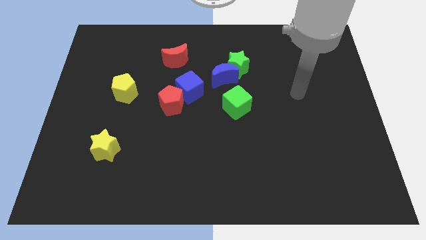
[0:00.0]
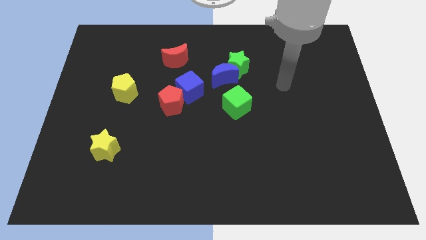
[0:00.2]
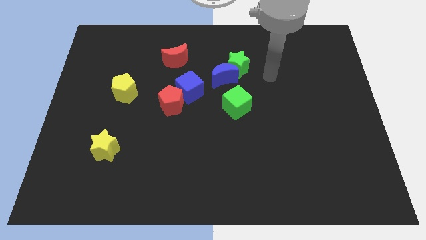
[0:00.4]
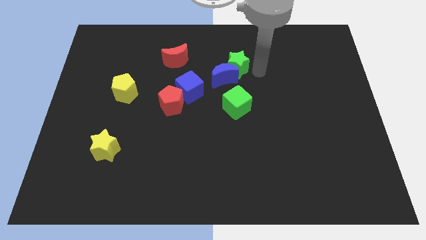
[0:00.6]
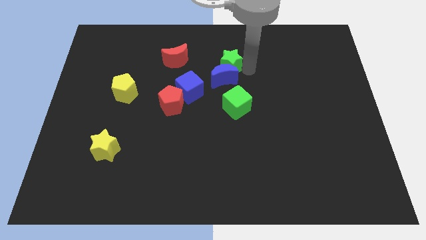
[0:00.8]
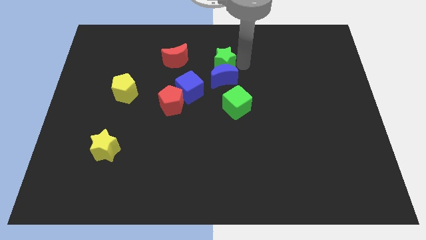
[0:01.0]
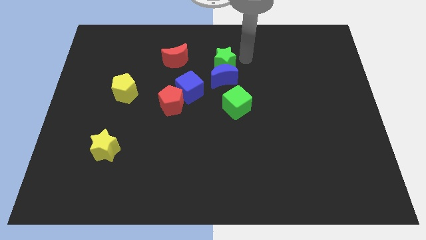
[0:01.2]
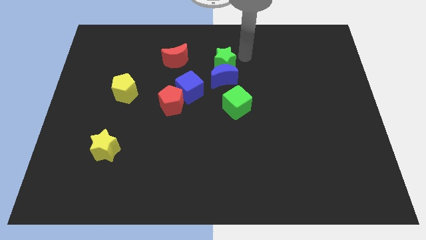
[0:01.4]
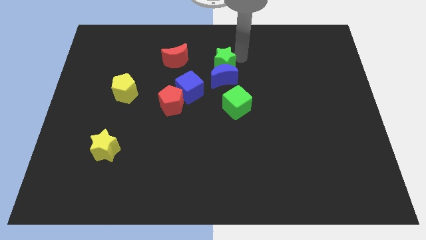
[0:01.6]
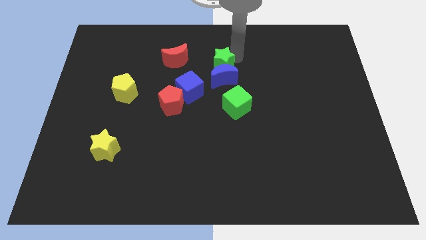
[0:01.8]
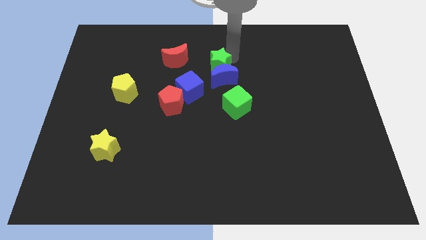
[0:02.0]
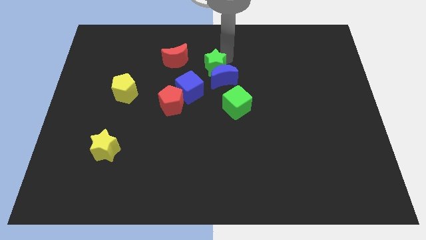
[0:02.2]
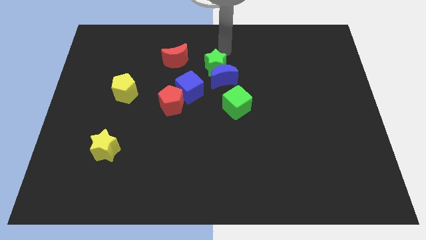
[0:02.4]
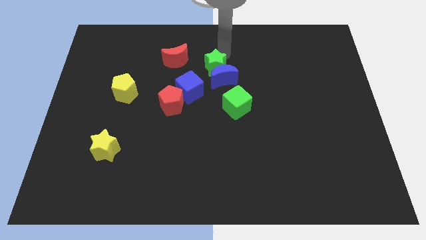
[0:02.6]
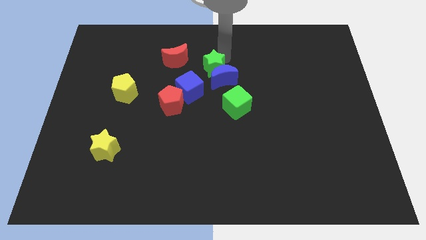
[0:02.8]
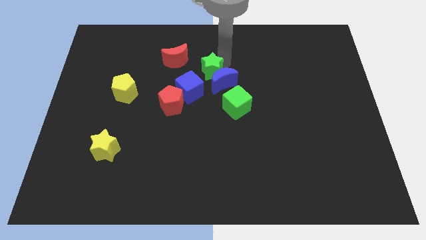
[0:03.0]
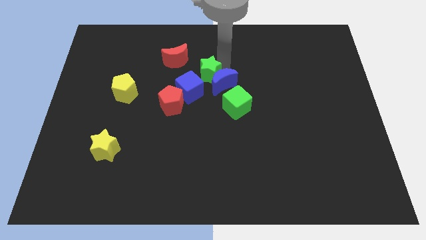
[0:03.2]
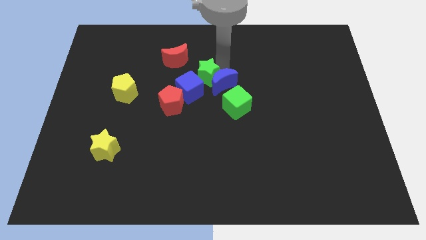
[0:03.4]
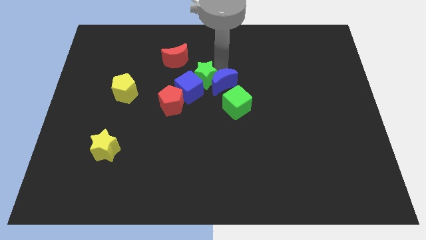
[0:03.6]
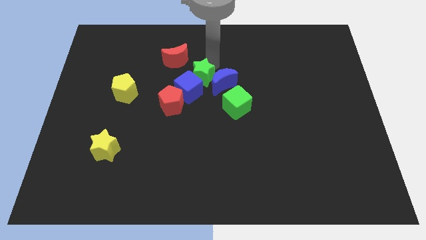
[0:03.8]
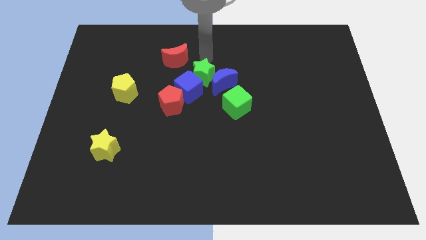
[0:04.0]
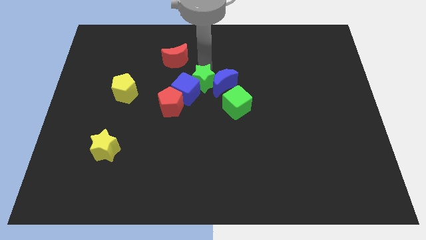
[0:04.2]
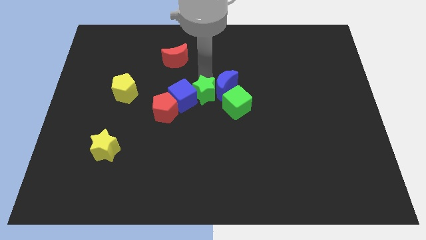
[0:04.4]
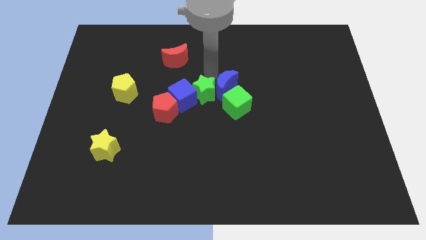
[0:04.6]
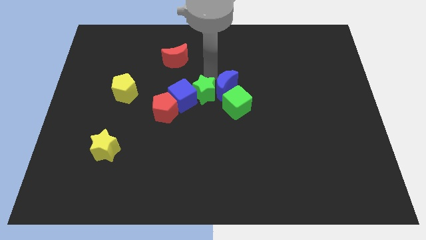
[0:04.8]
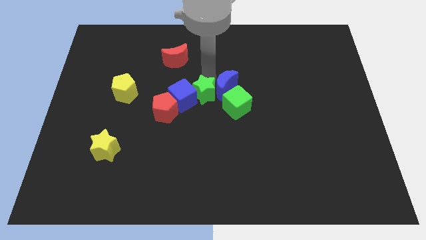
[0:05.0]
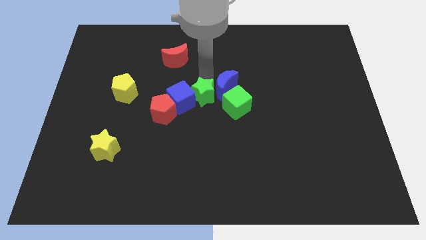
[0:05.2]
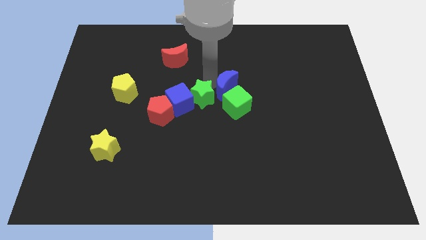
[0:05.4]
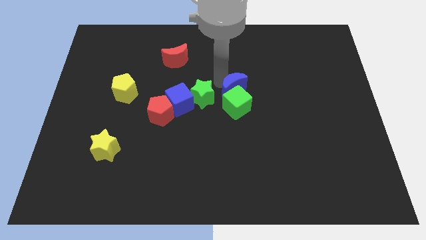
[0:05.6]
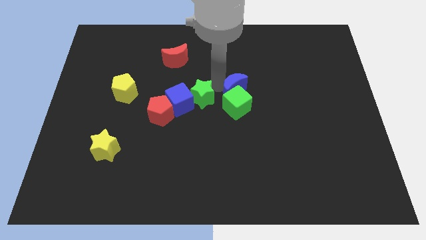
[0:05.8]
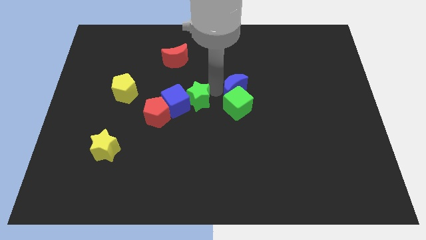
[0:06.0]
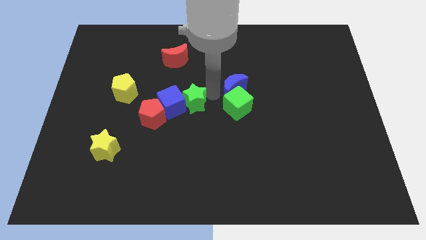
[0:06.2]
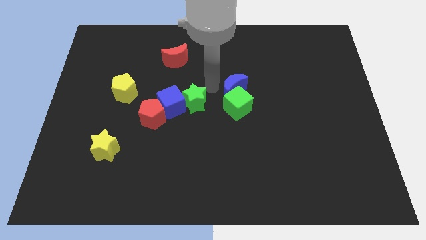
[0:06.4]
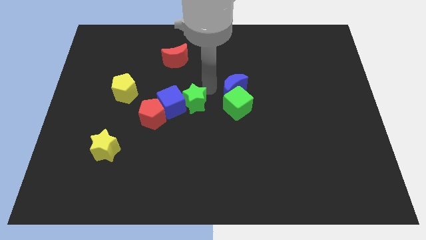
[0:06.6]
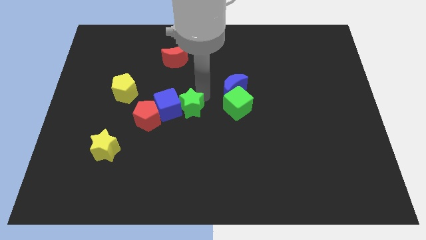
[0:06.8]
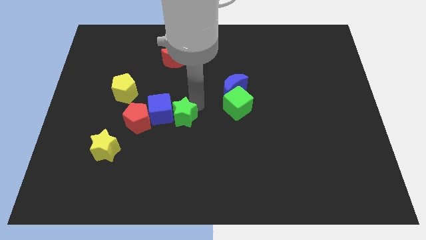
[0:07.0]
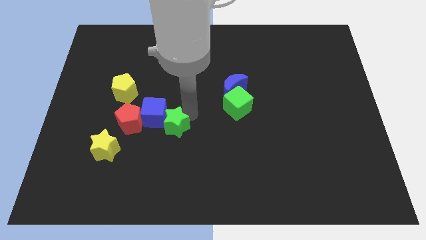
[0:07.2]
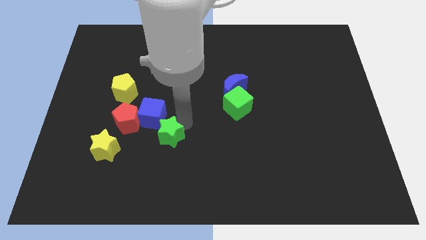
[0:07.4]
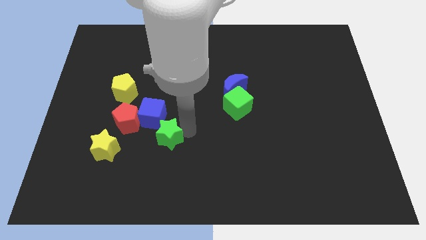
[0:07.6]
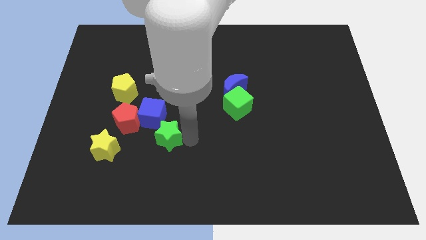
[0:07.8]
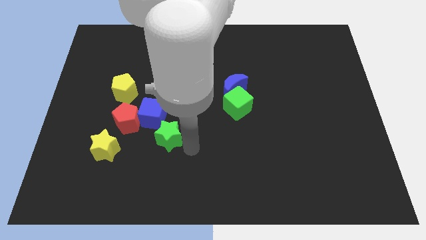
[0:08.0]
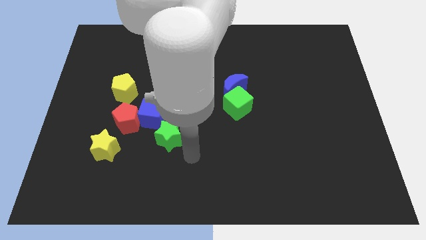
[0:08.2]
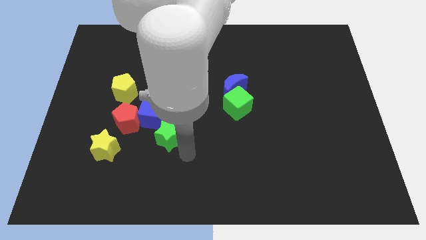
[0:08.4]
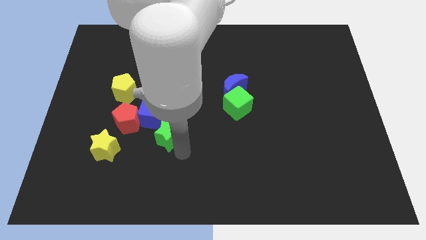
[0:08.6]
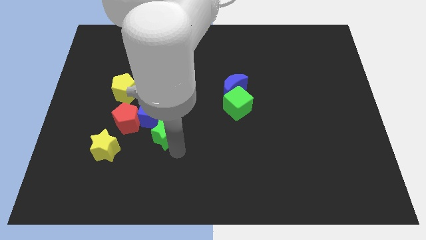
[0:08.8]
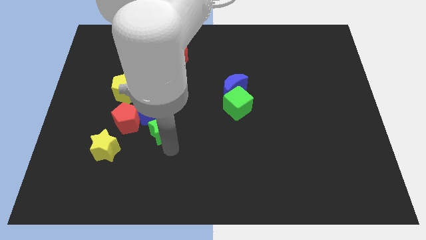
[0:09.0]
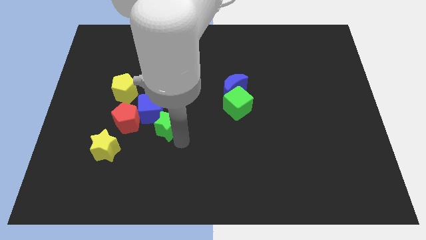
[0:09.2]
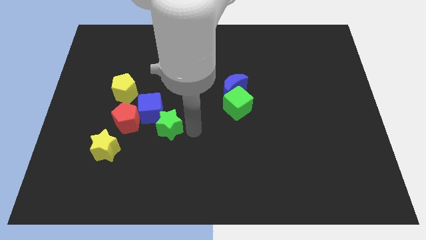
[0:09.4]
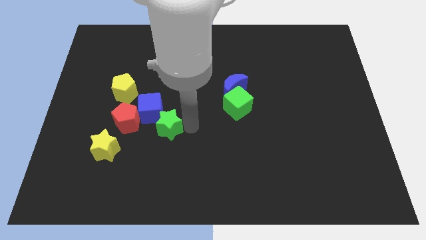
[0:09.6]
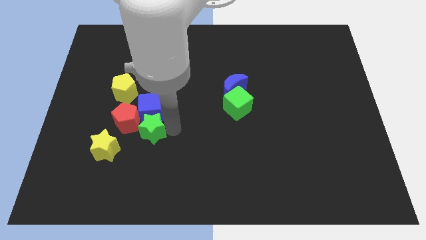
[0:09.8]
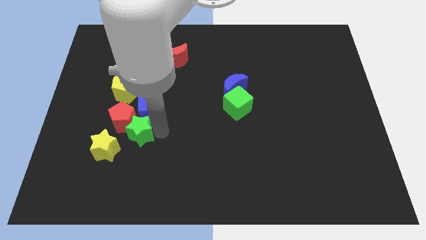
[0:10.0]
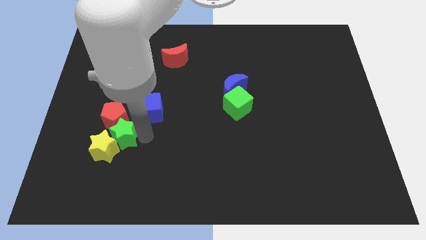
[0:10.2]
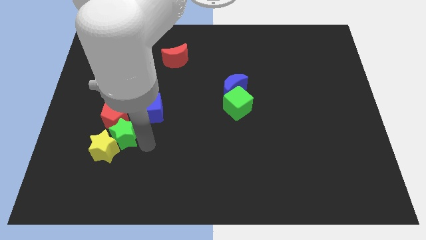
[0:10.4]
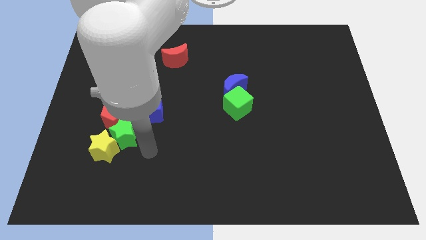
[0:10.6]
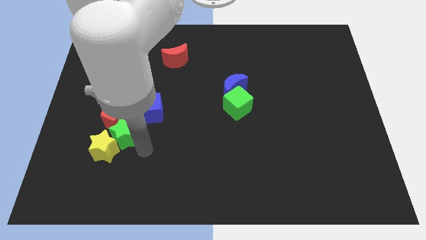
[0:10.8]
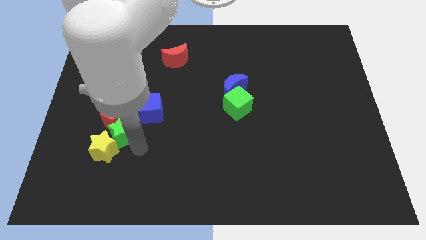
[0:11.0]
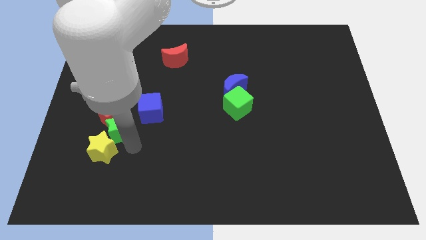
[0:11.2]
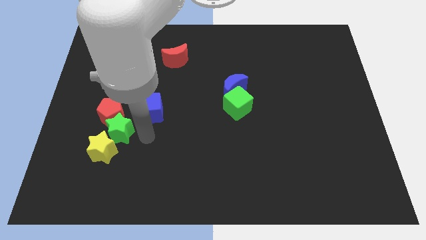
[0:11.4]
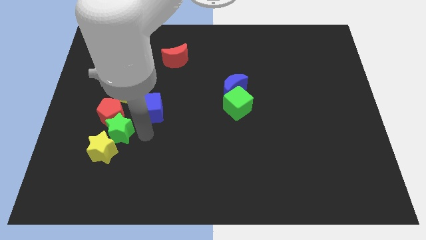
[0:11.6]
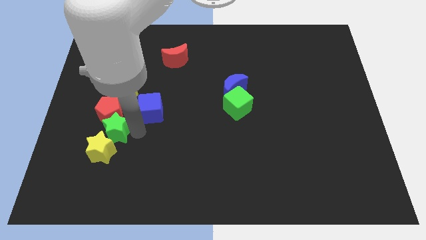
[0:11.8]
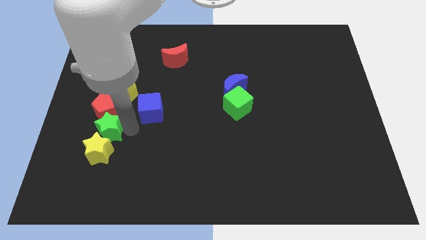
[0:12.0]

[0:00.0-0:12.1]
put the green star to the top left side of the yellow star

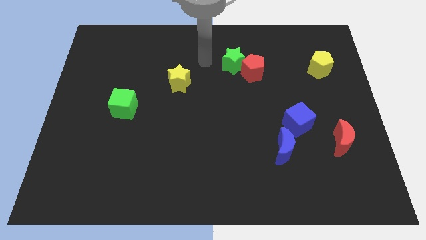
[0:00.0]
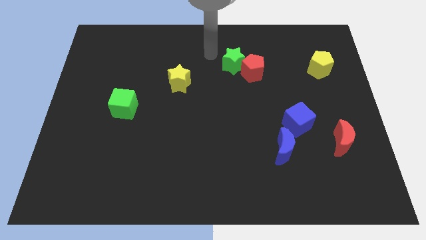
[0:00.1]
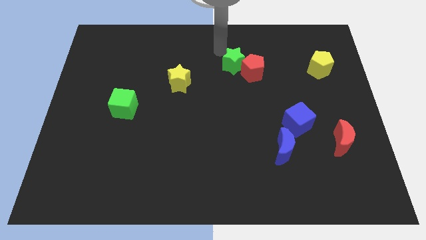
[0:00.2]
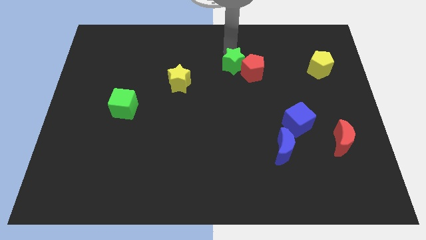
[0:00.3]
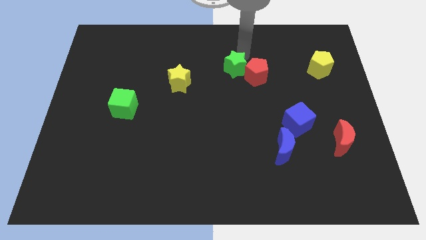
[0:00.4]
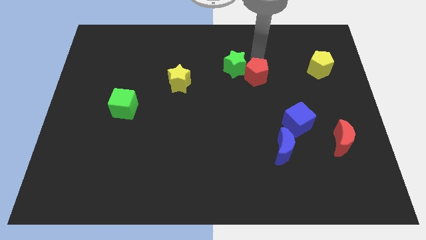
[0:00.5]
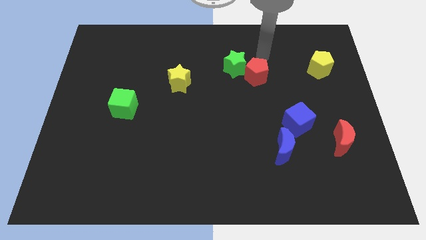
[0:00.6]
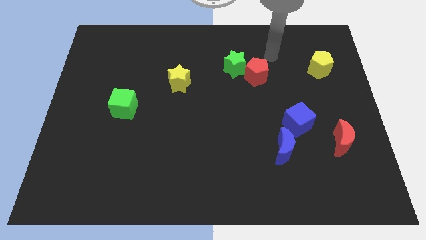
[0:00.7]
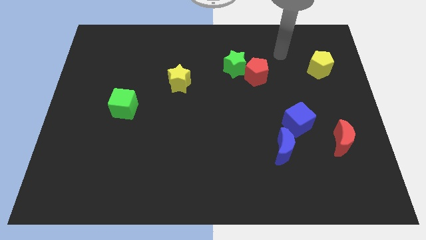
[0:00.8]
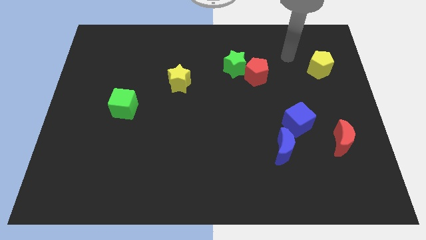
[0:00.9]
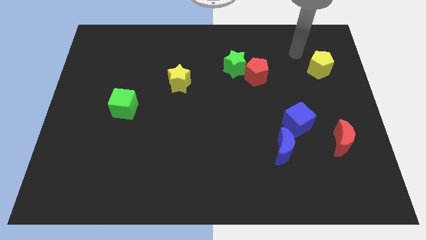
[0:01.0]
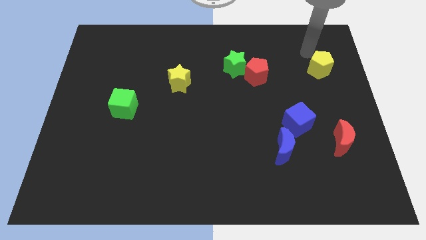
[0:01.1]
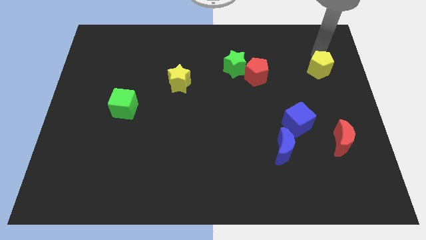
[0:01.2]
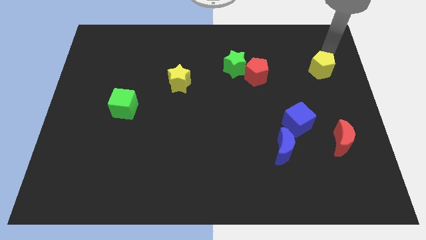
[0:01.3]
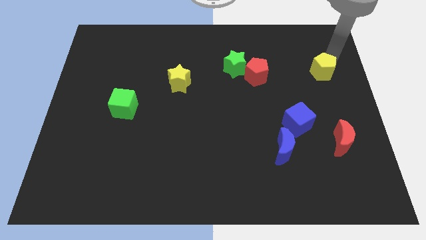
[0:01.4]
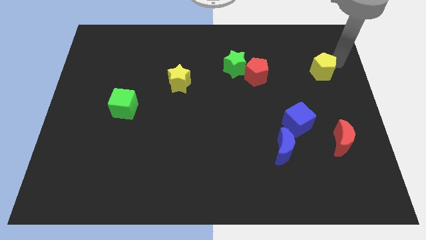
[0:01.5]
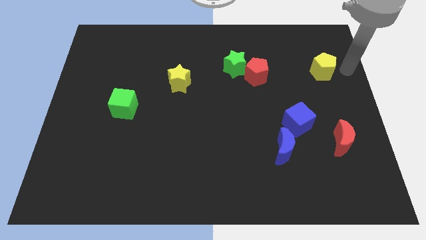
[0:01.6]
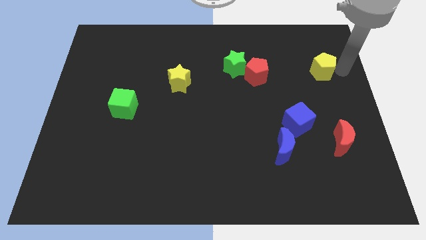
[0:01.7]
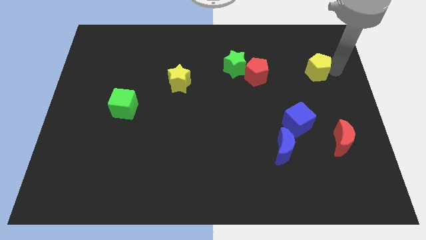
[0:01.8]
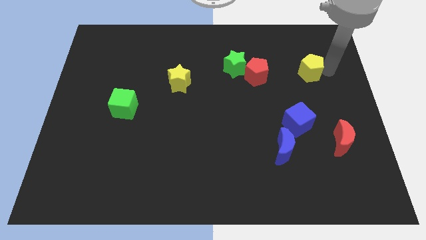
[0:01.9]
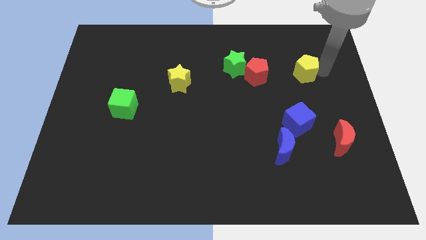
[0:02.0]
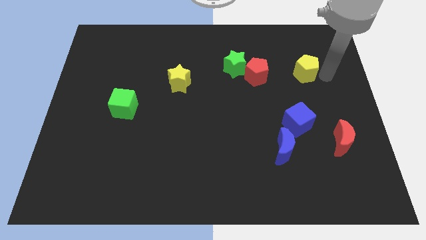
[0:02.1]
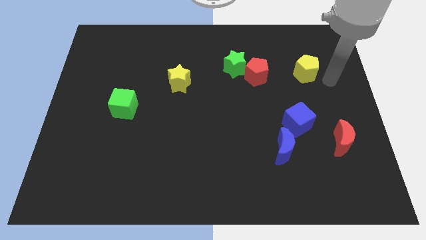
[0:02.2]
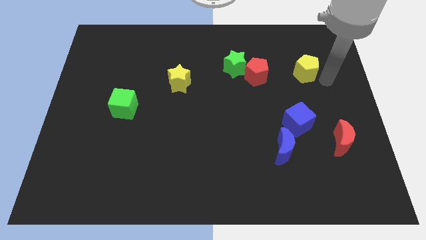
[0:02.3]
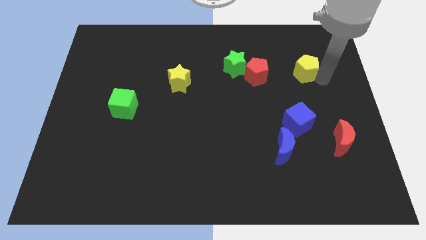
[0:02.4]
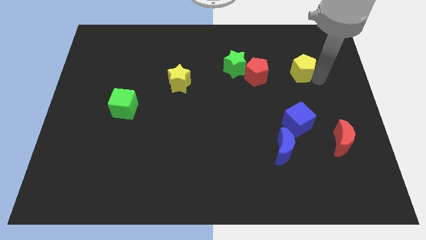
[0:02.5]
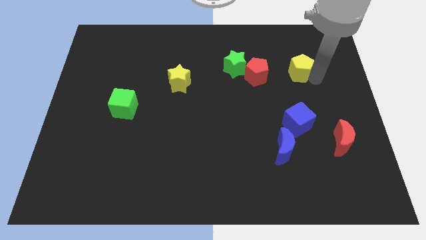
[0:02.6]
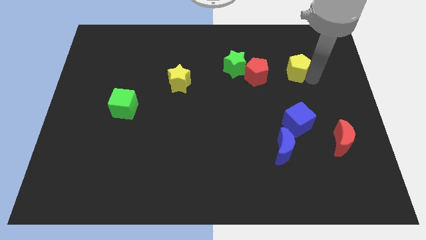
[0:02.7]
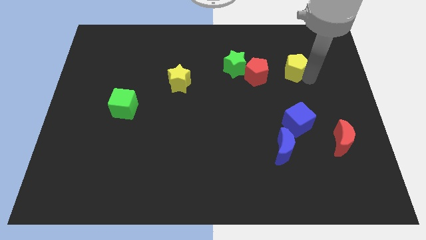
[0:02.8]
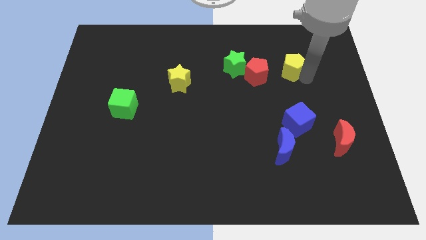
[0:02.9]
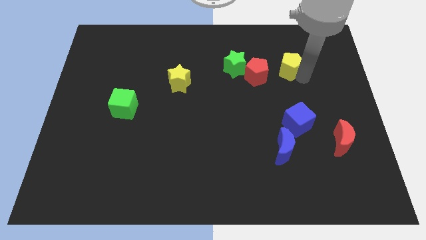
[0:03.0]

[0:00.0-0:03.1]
push the yellow pentagon to the top right side of the red pentagon
